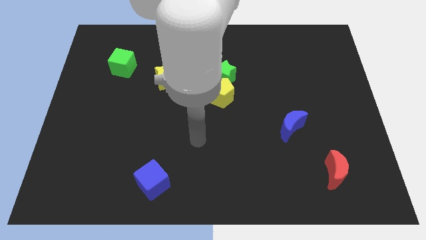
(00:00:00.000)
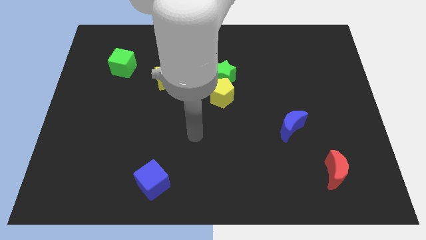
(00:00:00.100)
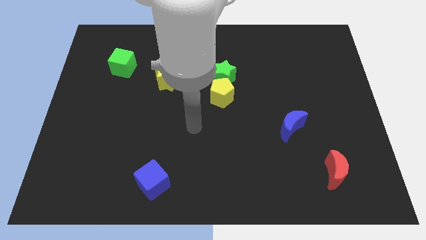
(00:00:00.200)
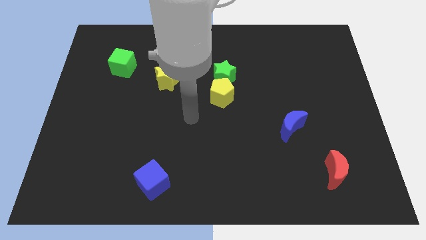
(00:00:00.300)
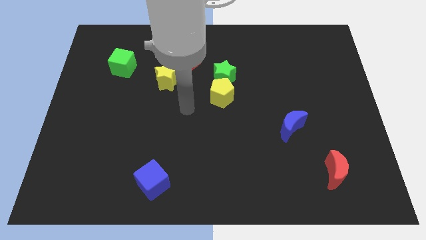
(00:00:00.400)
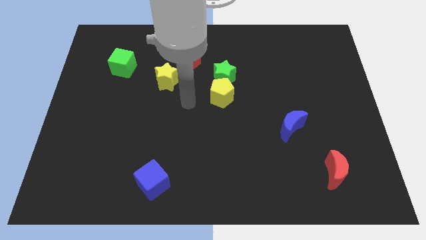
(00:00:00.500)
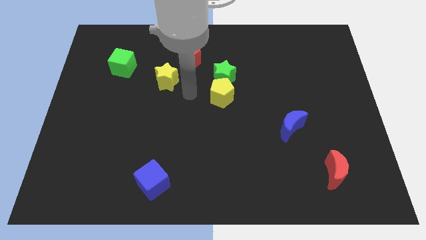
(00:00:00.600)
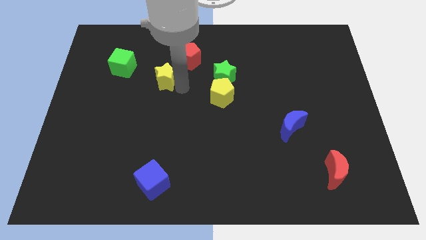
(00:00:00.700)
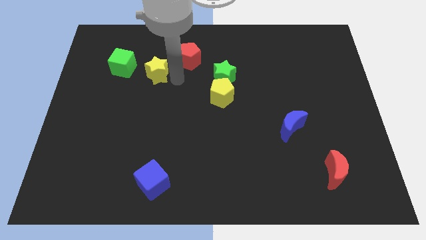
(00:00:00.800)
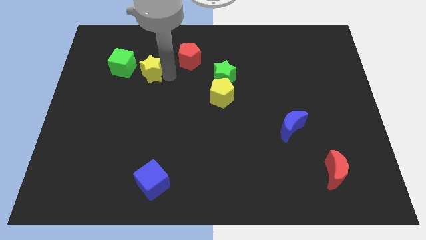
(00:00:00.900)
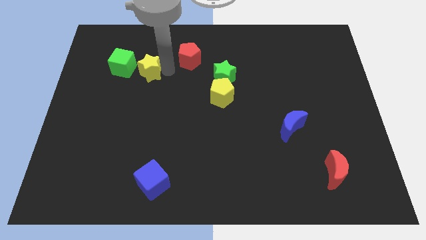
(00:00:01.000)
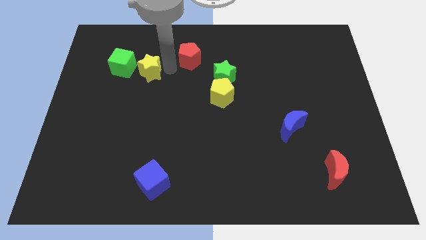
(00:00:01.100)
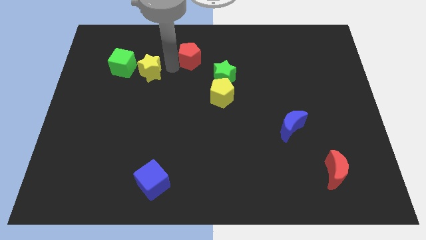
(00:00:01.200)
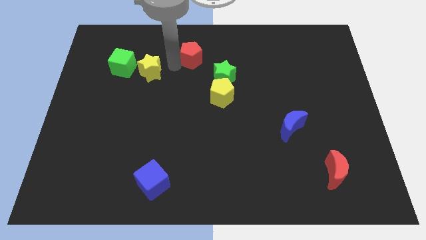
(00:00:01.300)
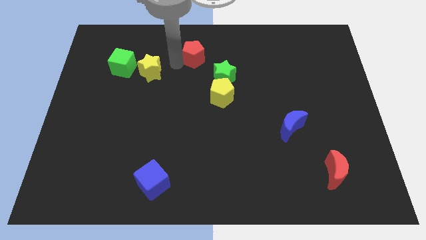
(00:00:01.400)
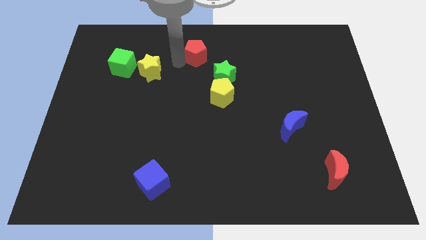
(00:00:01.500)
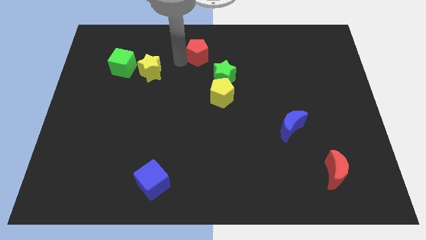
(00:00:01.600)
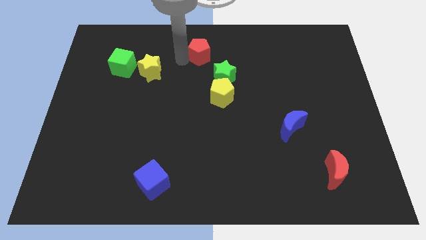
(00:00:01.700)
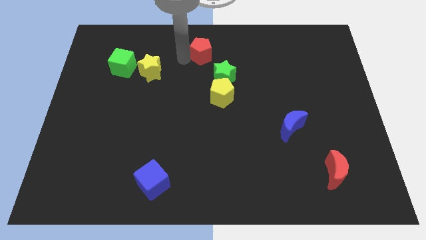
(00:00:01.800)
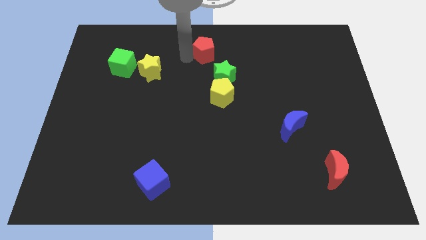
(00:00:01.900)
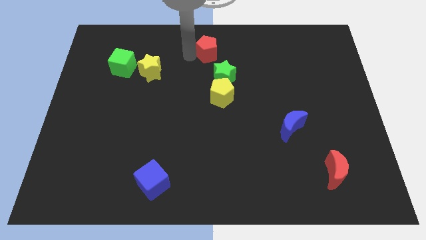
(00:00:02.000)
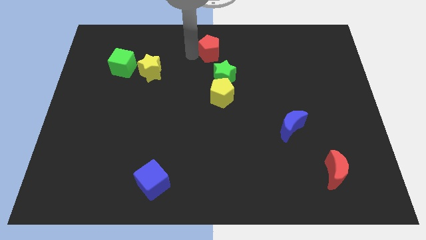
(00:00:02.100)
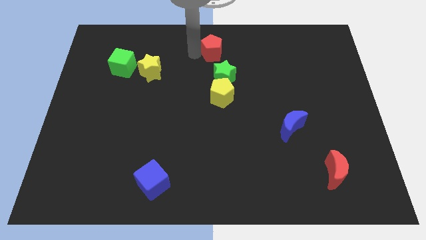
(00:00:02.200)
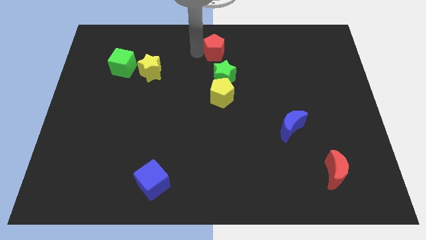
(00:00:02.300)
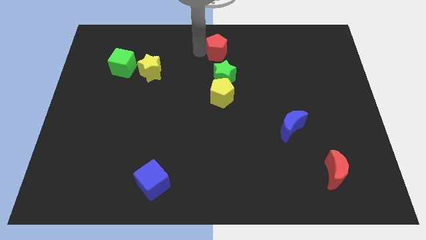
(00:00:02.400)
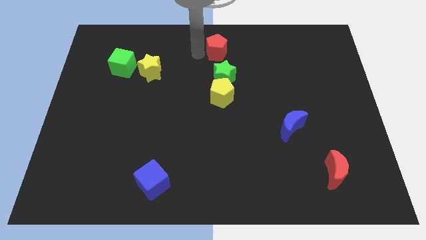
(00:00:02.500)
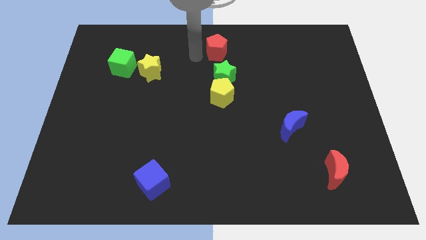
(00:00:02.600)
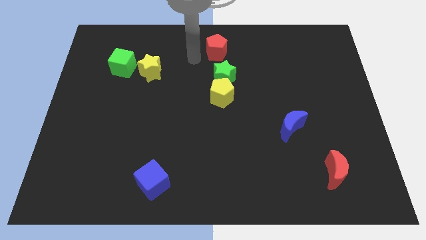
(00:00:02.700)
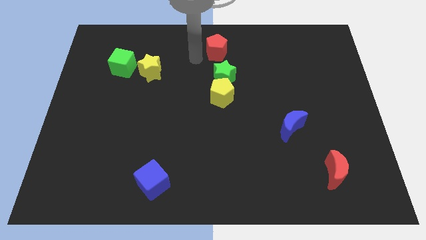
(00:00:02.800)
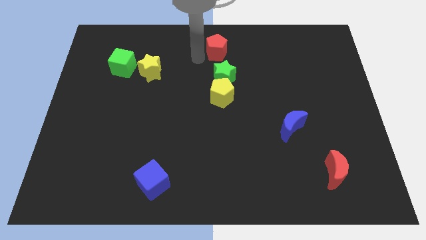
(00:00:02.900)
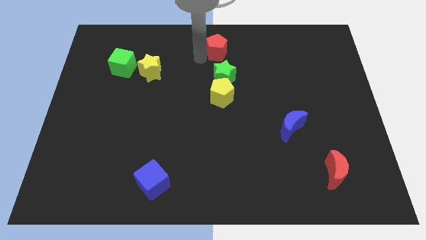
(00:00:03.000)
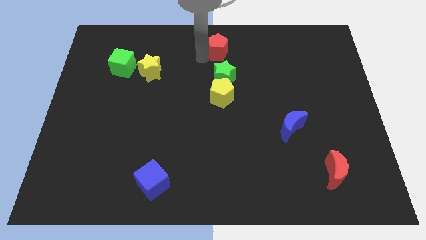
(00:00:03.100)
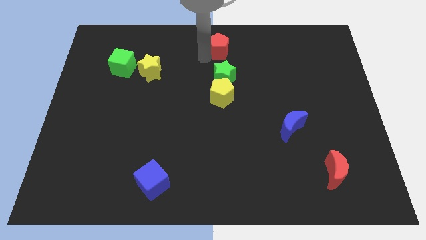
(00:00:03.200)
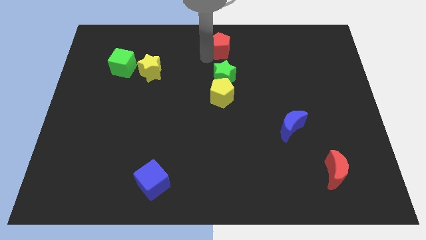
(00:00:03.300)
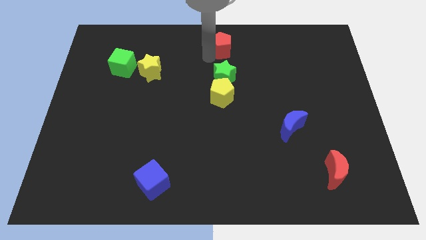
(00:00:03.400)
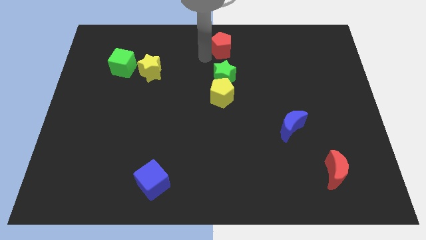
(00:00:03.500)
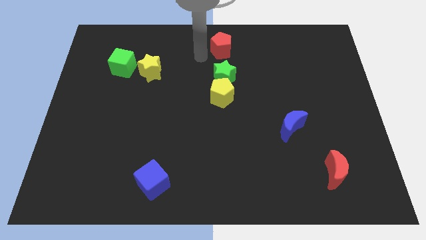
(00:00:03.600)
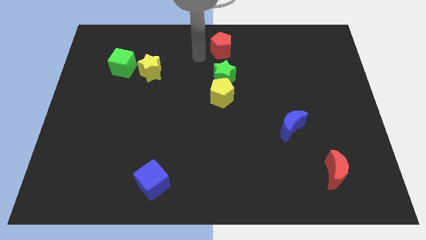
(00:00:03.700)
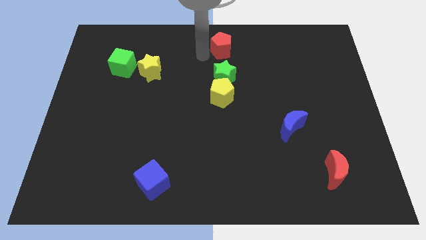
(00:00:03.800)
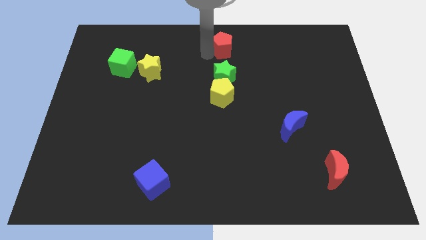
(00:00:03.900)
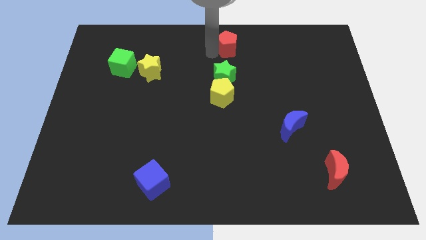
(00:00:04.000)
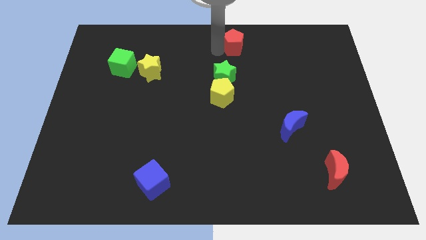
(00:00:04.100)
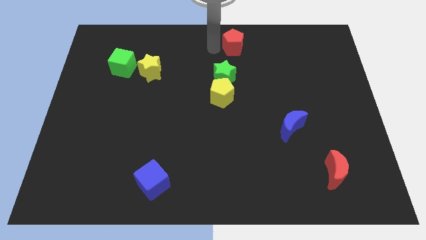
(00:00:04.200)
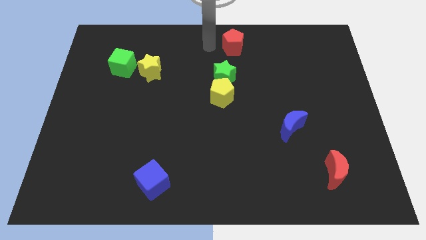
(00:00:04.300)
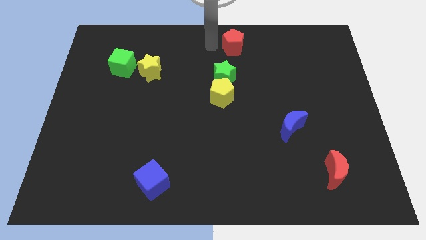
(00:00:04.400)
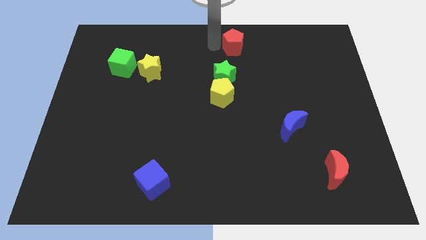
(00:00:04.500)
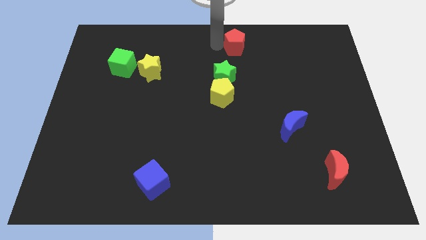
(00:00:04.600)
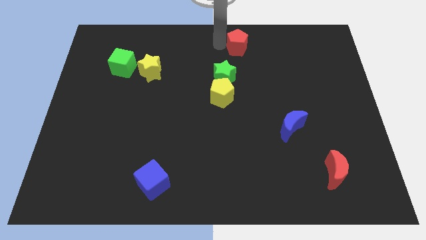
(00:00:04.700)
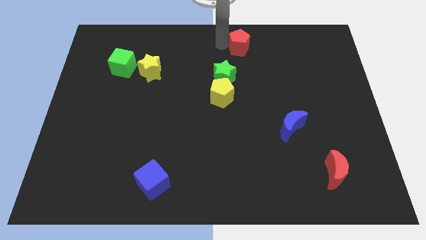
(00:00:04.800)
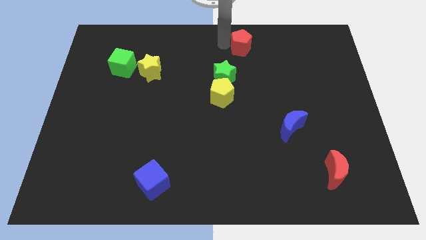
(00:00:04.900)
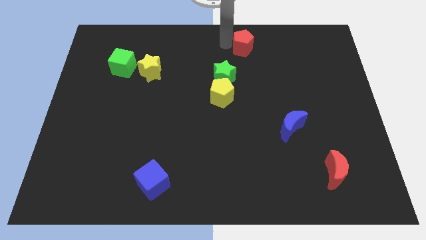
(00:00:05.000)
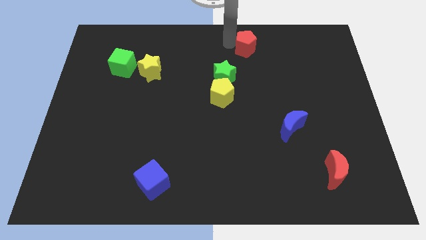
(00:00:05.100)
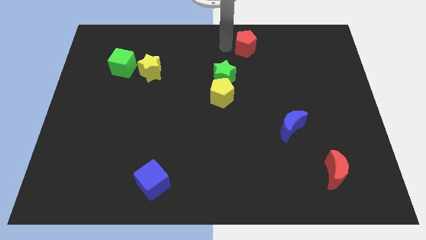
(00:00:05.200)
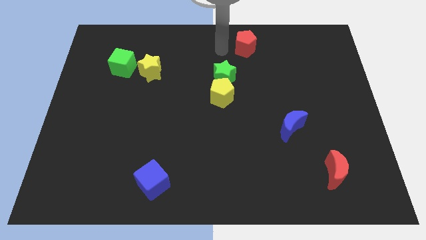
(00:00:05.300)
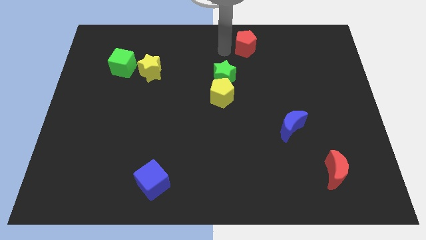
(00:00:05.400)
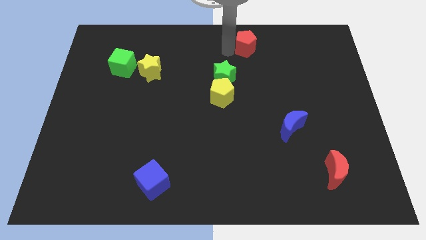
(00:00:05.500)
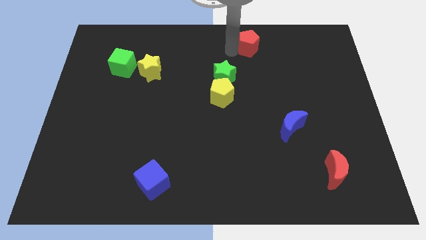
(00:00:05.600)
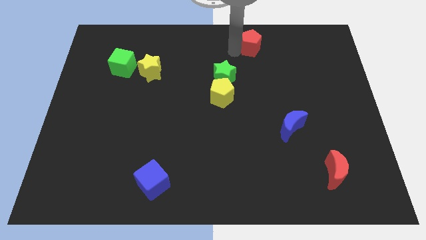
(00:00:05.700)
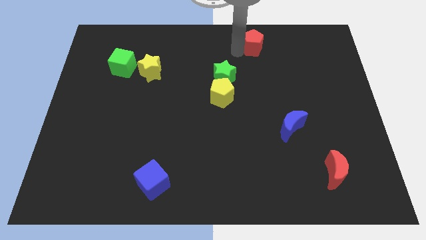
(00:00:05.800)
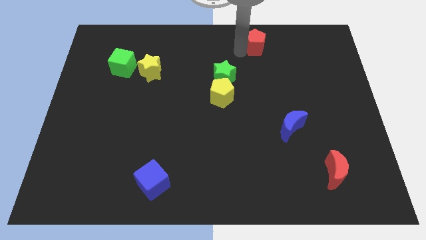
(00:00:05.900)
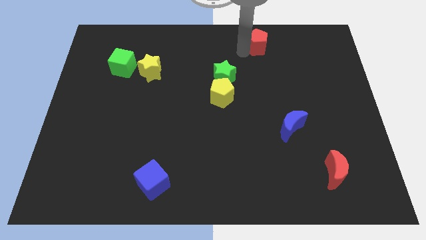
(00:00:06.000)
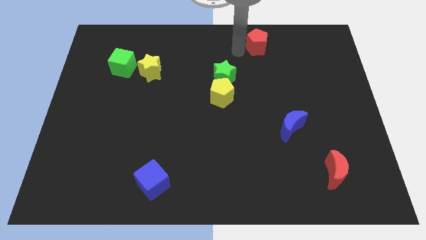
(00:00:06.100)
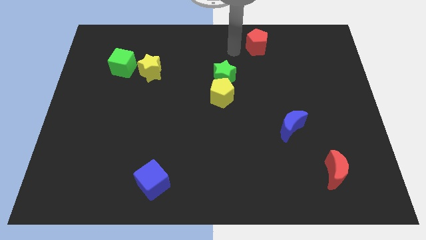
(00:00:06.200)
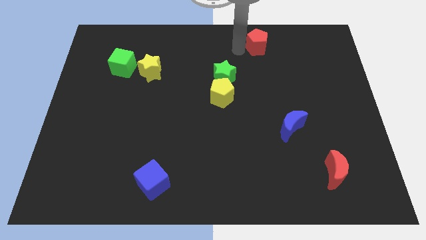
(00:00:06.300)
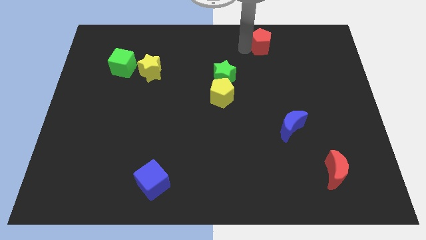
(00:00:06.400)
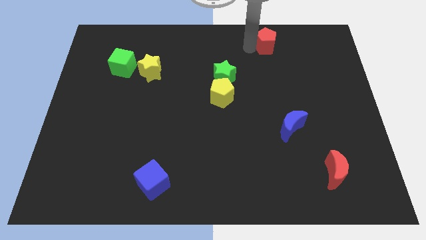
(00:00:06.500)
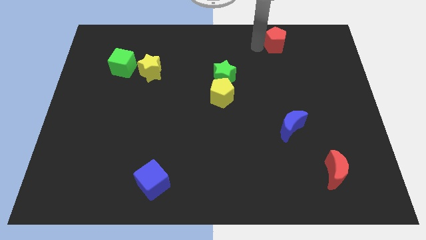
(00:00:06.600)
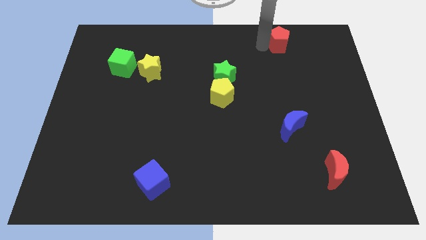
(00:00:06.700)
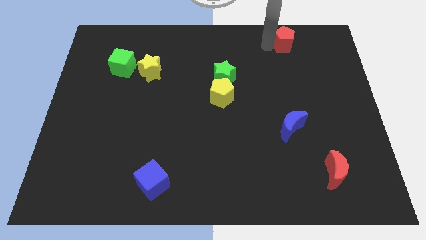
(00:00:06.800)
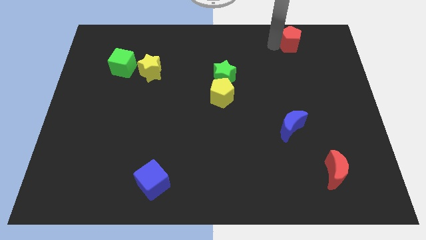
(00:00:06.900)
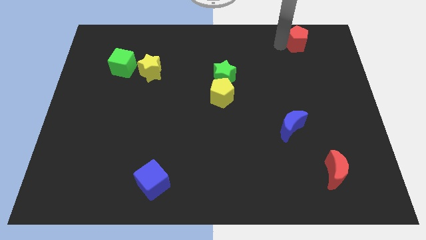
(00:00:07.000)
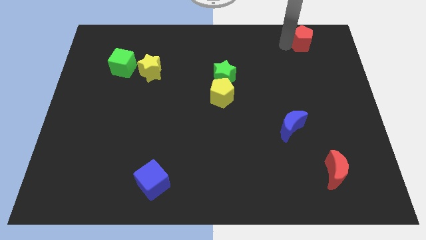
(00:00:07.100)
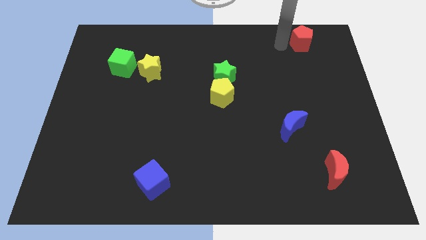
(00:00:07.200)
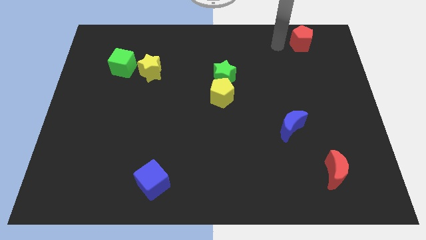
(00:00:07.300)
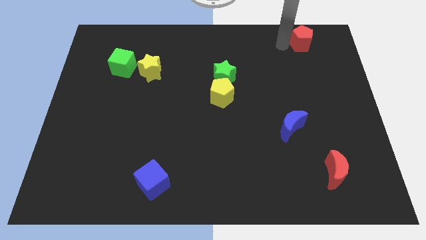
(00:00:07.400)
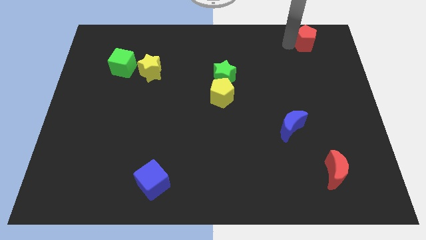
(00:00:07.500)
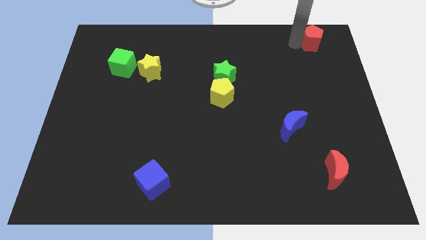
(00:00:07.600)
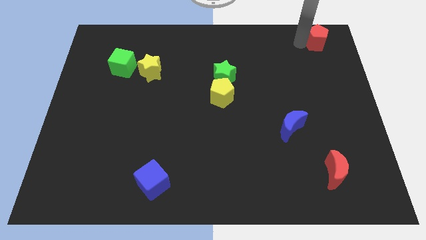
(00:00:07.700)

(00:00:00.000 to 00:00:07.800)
push the red pentagon to the top right of the board
